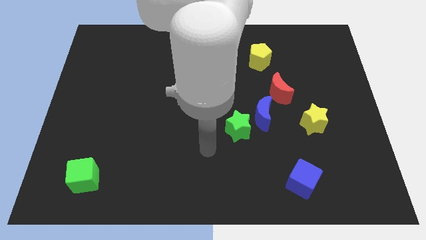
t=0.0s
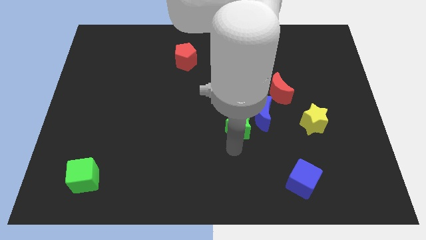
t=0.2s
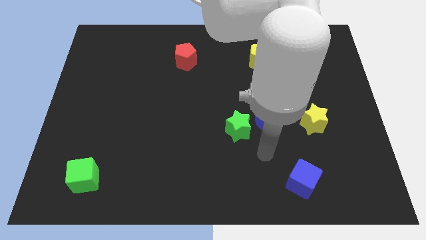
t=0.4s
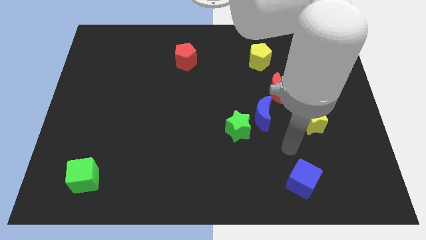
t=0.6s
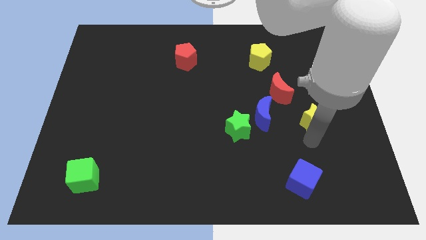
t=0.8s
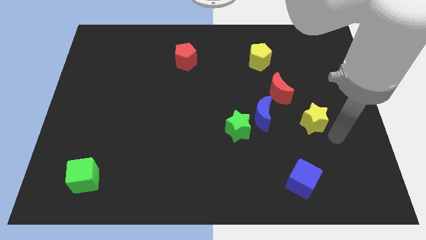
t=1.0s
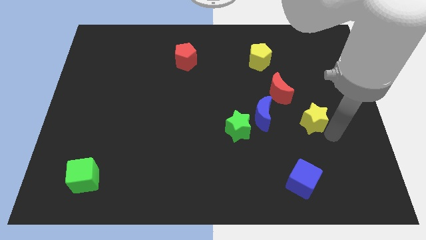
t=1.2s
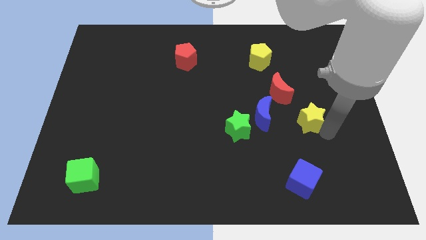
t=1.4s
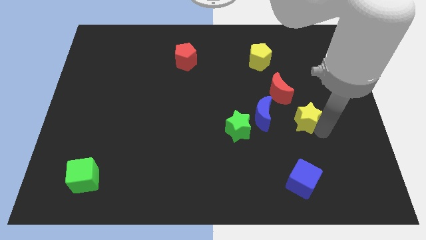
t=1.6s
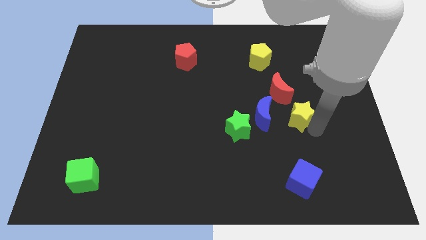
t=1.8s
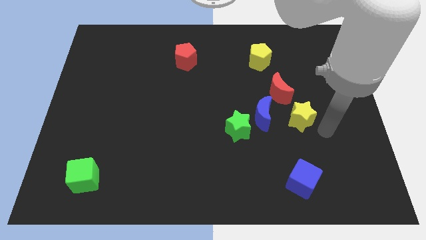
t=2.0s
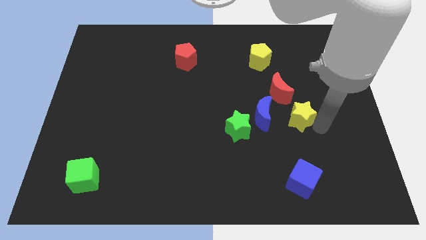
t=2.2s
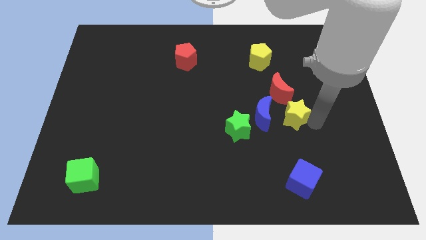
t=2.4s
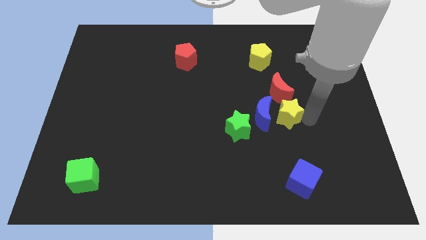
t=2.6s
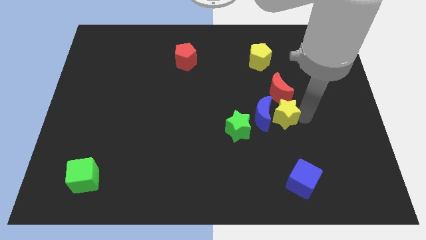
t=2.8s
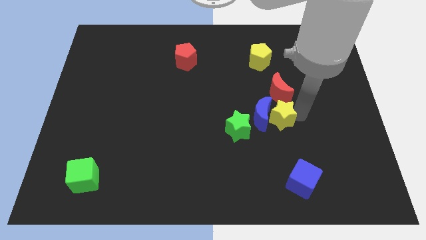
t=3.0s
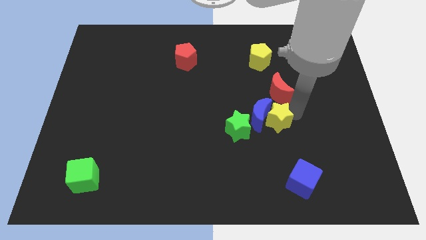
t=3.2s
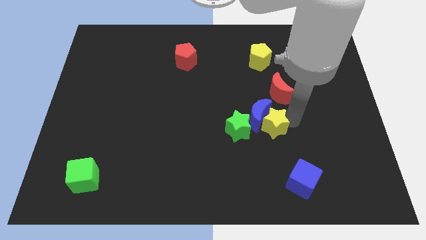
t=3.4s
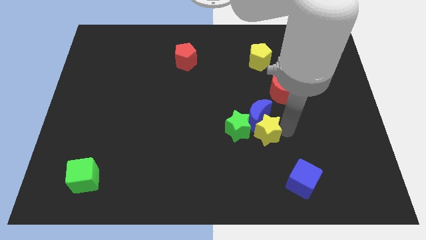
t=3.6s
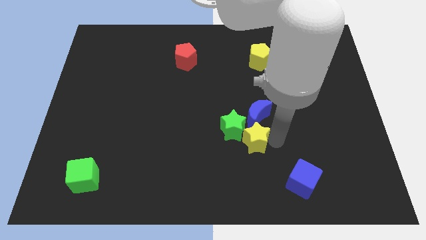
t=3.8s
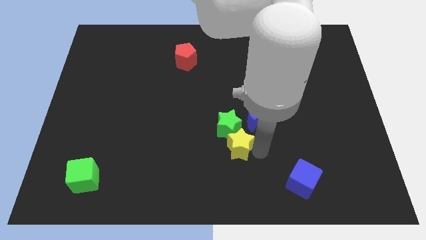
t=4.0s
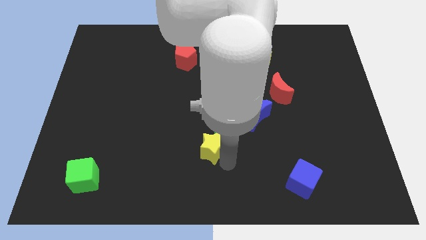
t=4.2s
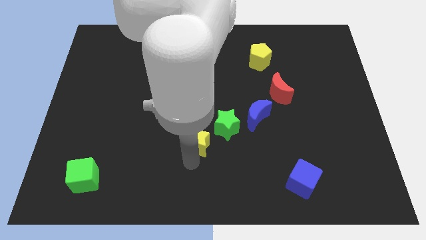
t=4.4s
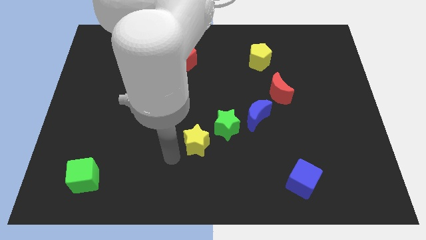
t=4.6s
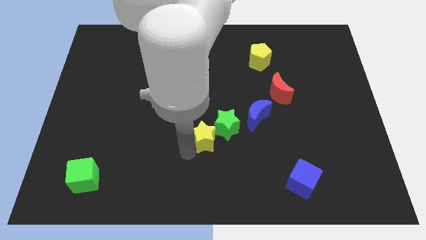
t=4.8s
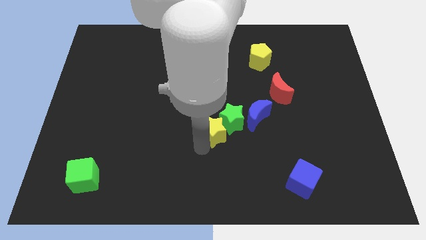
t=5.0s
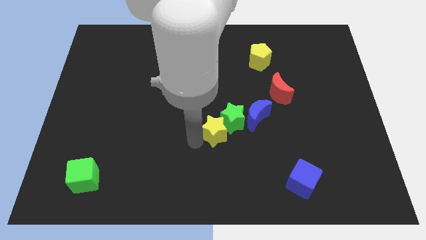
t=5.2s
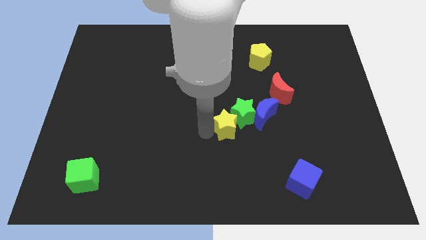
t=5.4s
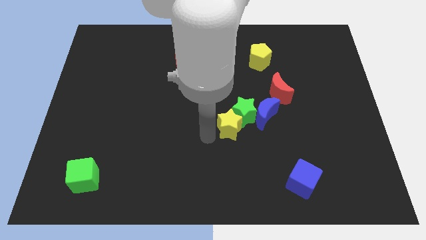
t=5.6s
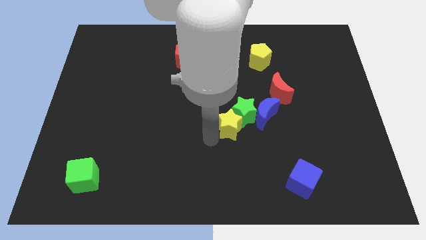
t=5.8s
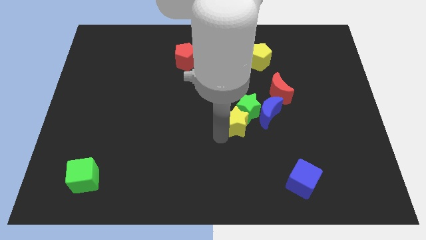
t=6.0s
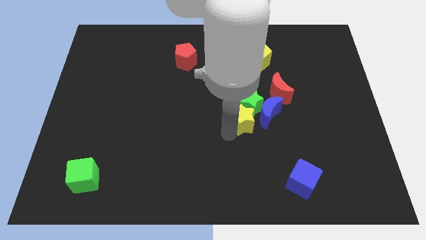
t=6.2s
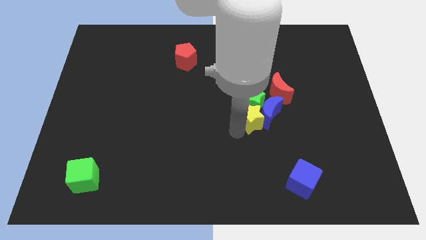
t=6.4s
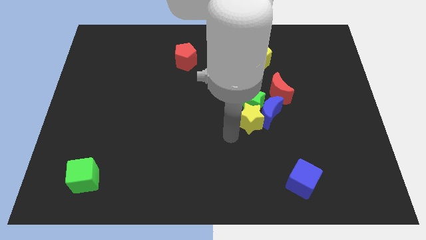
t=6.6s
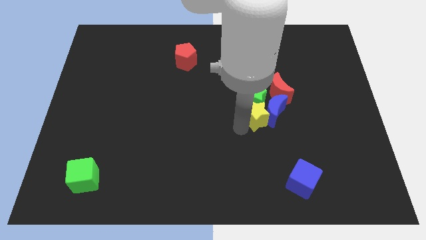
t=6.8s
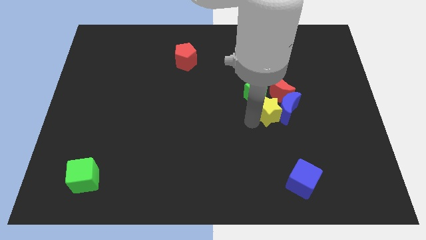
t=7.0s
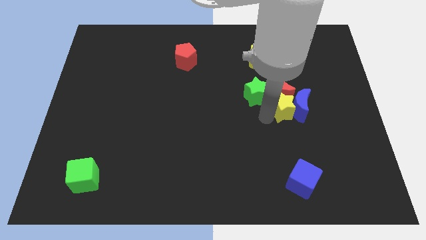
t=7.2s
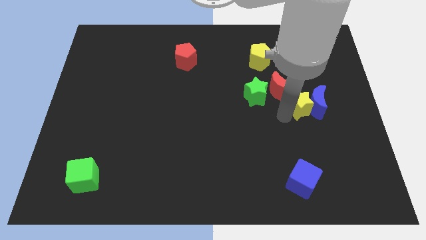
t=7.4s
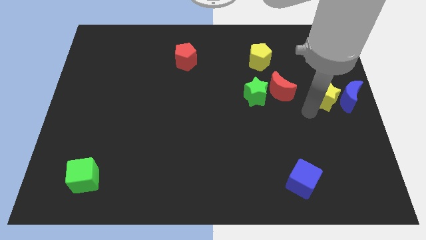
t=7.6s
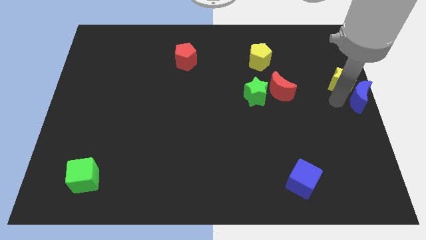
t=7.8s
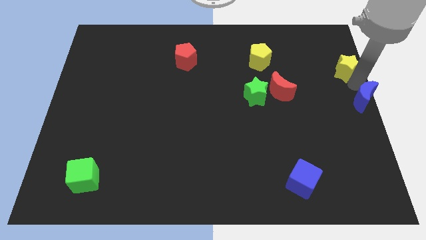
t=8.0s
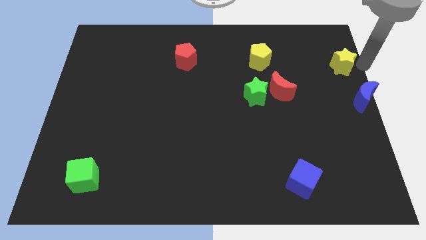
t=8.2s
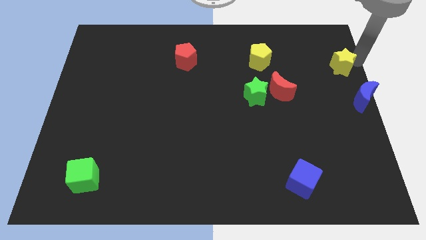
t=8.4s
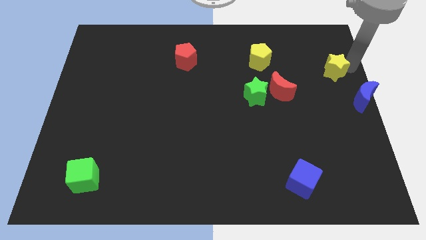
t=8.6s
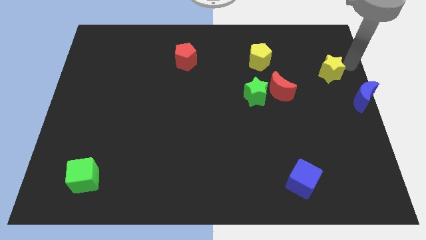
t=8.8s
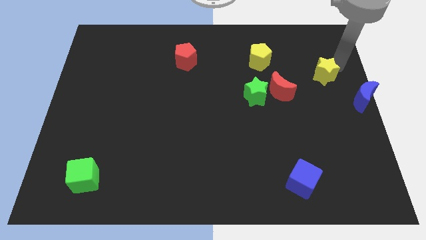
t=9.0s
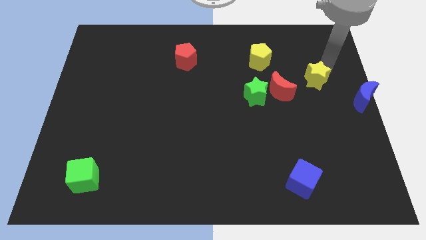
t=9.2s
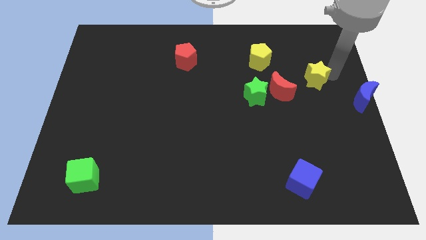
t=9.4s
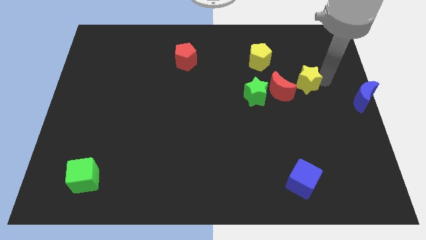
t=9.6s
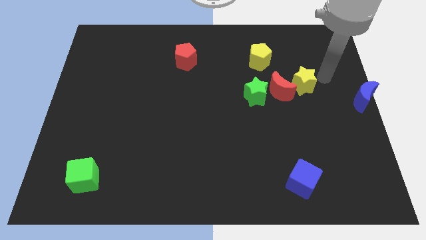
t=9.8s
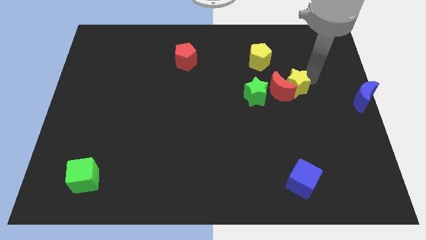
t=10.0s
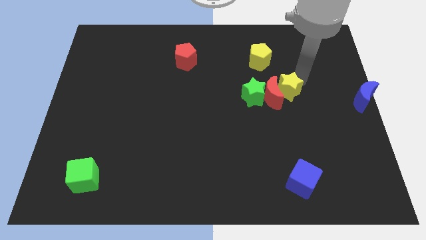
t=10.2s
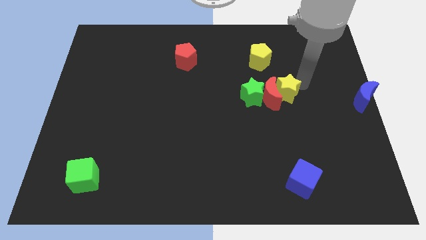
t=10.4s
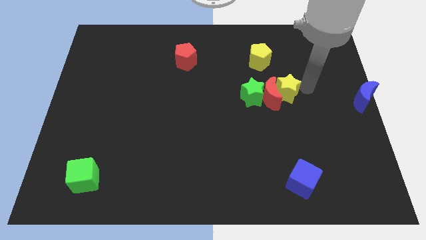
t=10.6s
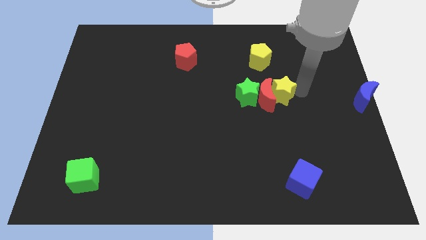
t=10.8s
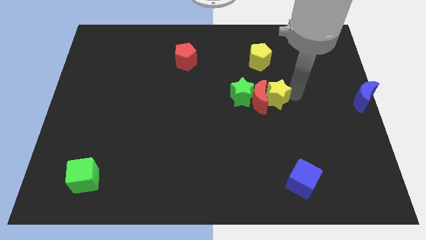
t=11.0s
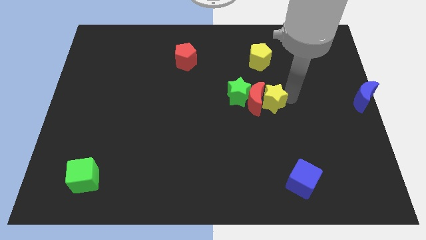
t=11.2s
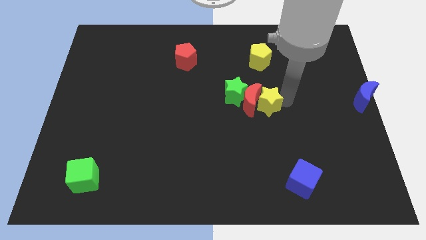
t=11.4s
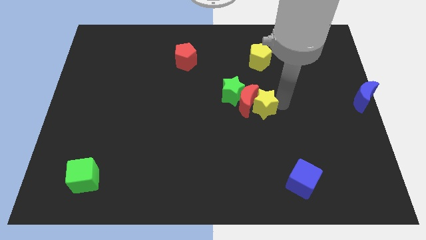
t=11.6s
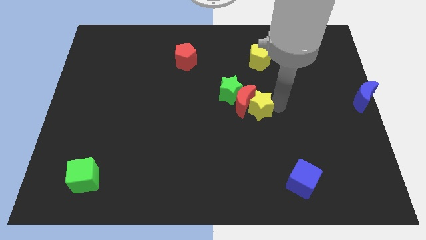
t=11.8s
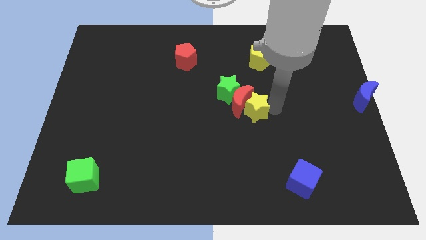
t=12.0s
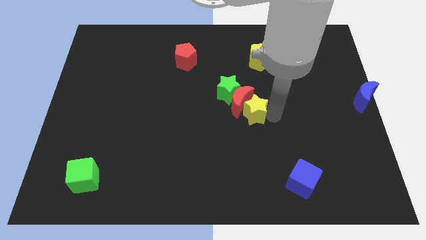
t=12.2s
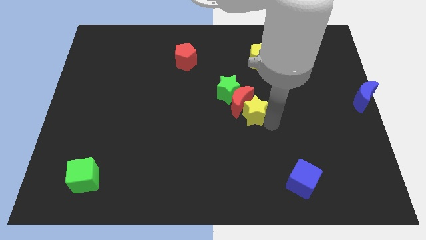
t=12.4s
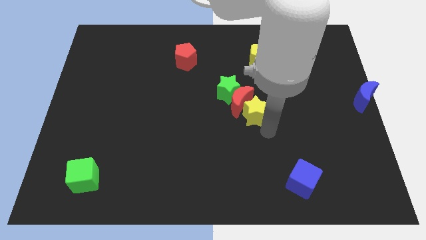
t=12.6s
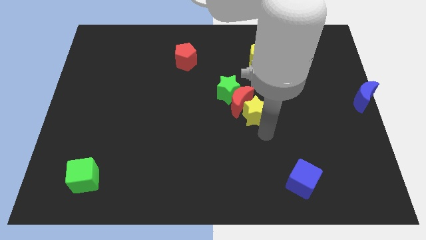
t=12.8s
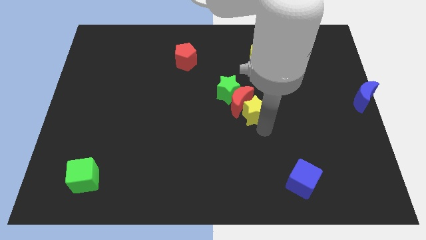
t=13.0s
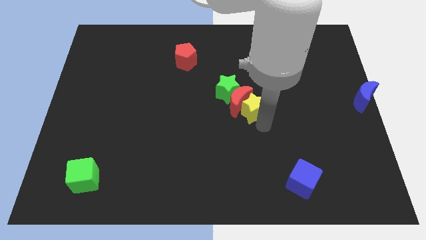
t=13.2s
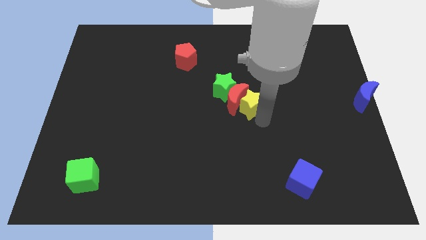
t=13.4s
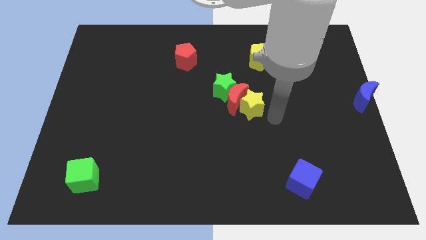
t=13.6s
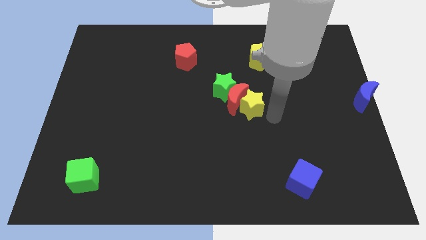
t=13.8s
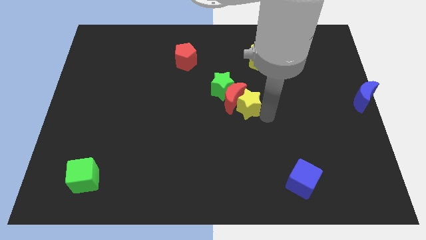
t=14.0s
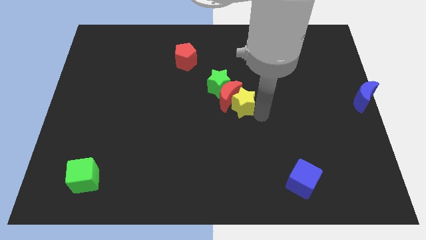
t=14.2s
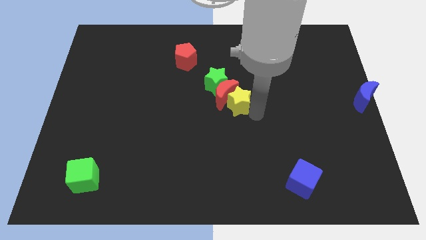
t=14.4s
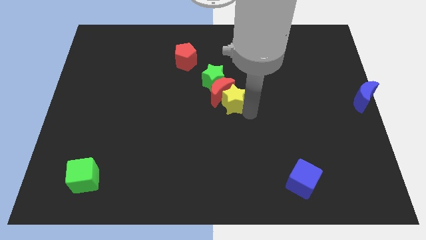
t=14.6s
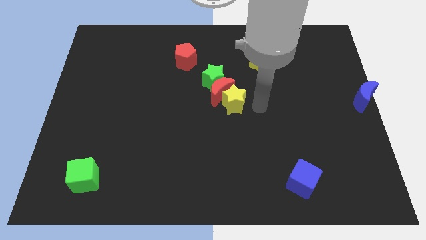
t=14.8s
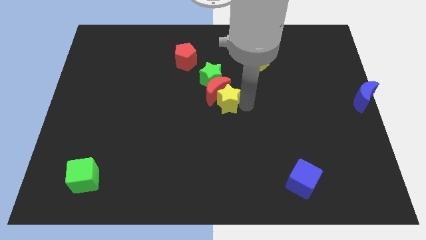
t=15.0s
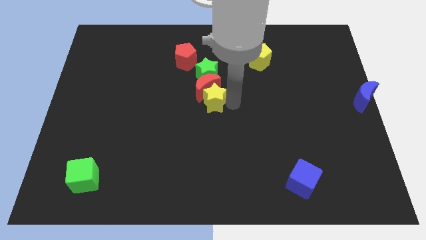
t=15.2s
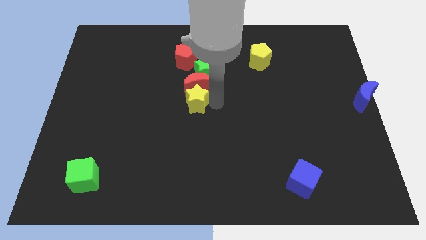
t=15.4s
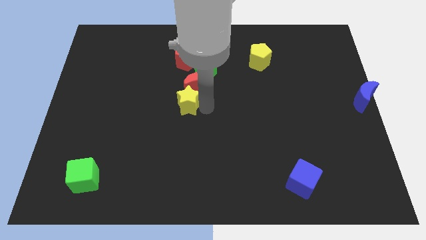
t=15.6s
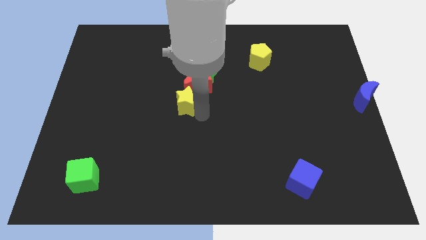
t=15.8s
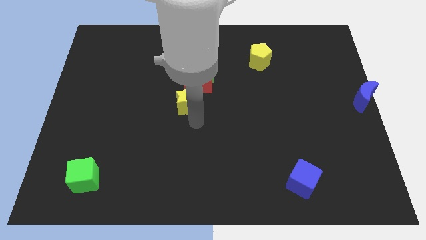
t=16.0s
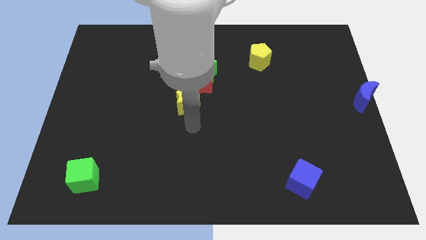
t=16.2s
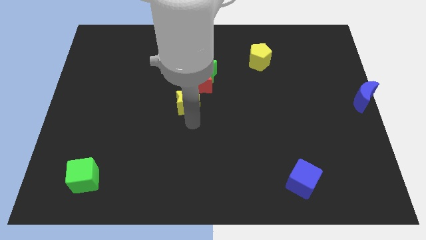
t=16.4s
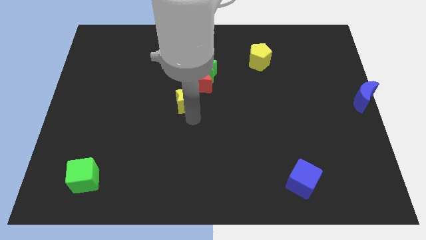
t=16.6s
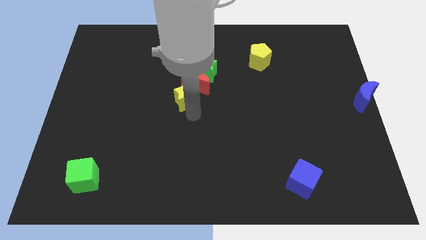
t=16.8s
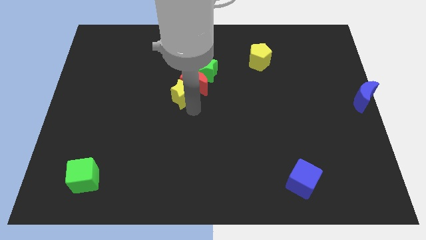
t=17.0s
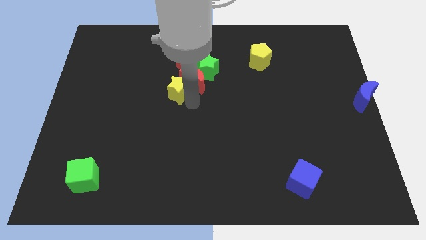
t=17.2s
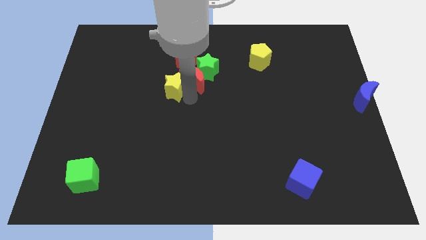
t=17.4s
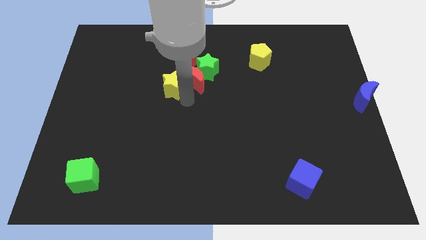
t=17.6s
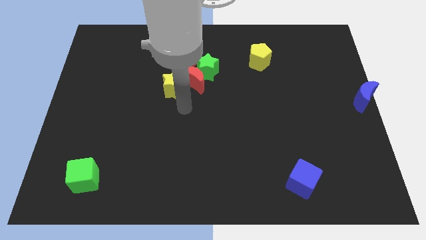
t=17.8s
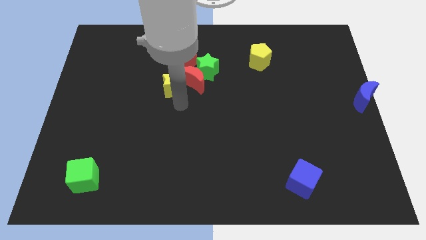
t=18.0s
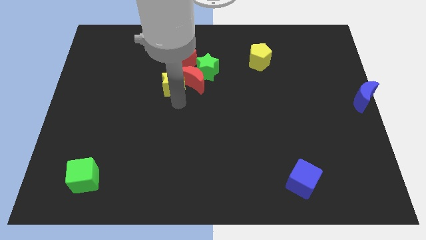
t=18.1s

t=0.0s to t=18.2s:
put the yellow star to the bottom left of the red pentagon
